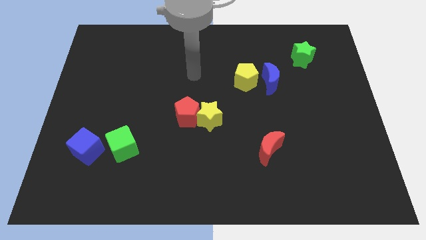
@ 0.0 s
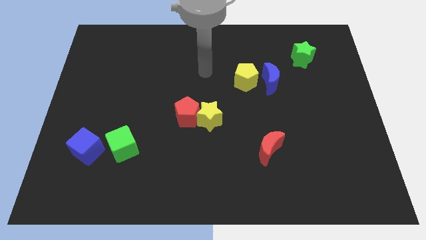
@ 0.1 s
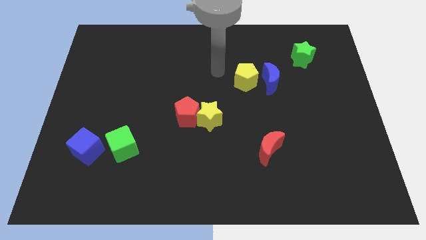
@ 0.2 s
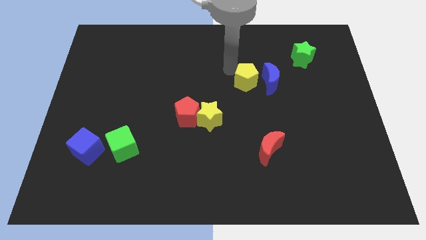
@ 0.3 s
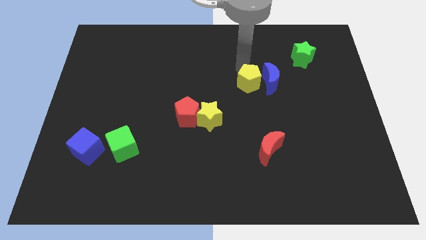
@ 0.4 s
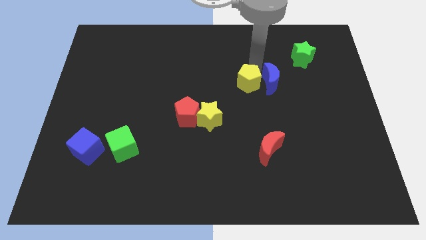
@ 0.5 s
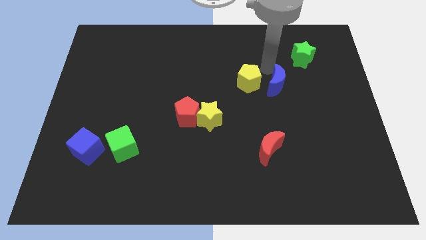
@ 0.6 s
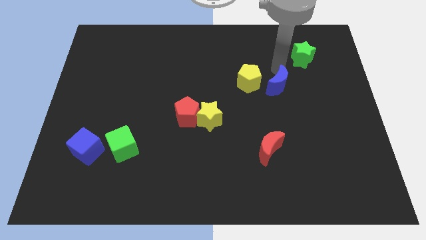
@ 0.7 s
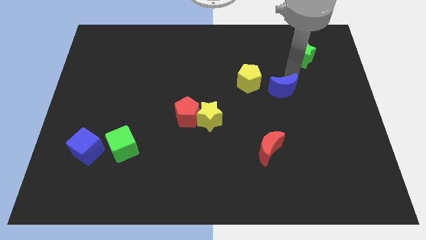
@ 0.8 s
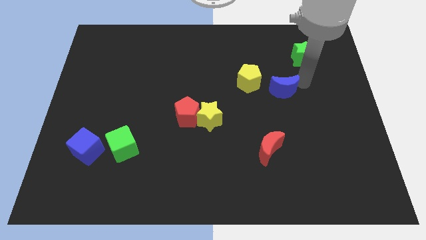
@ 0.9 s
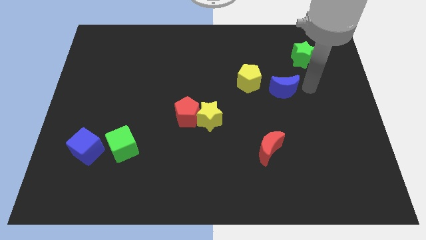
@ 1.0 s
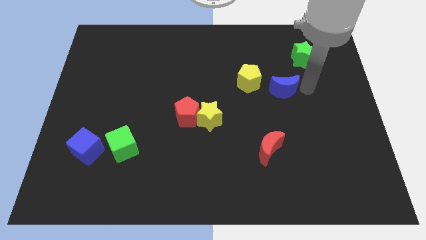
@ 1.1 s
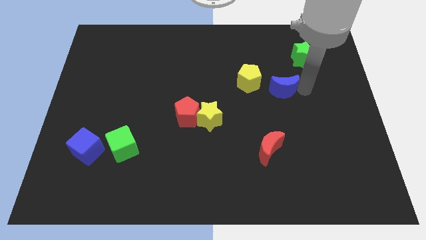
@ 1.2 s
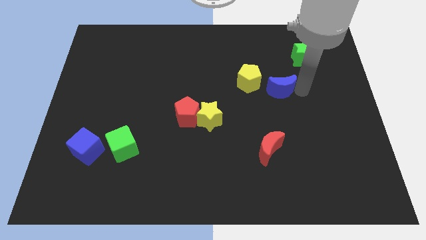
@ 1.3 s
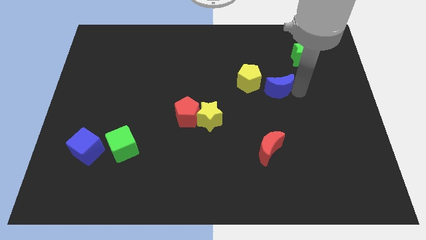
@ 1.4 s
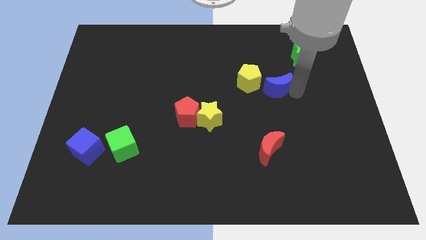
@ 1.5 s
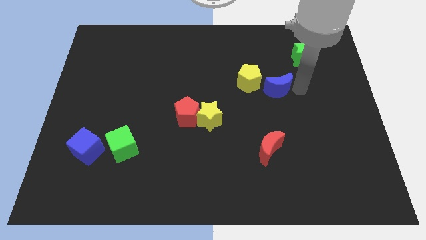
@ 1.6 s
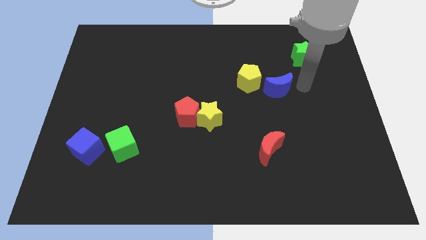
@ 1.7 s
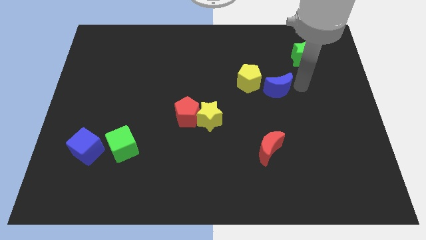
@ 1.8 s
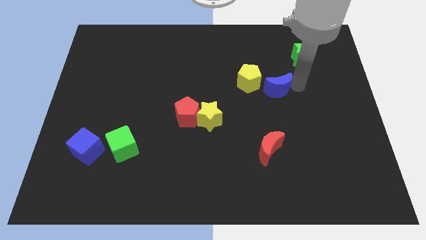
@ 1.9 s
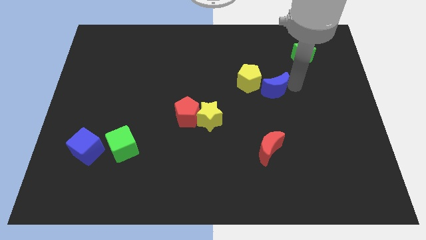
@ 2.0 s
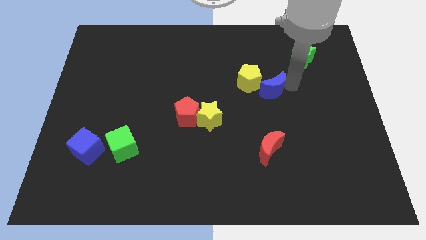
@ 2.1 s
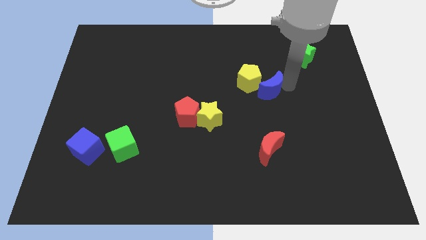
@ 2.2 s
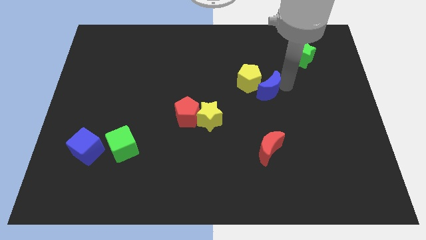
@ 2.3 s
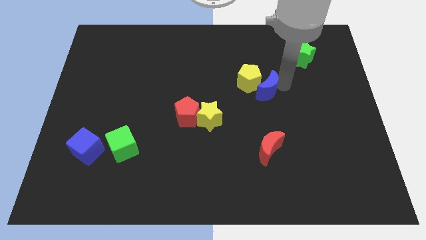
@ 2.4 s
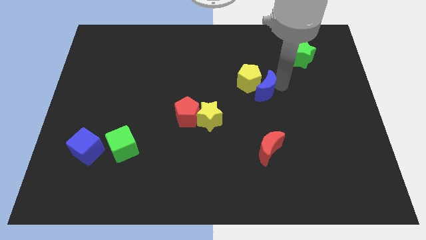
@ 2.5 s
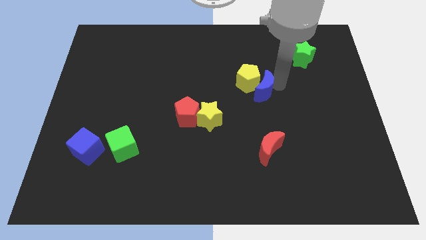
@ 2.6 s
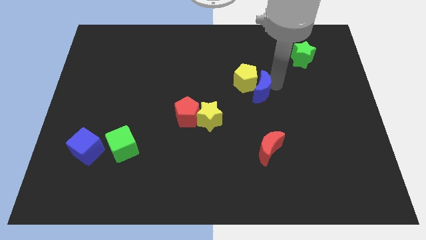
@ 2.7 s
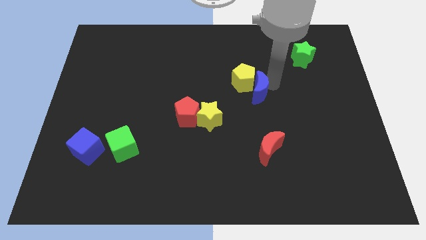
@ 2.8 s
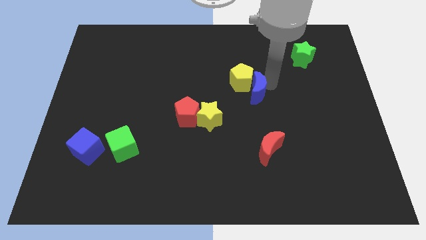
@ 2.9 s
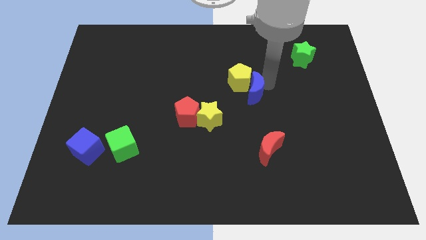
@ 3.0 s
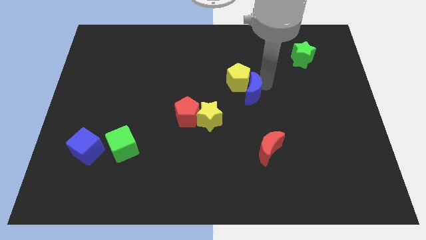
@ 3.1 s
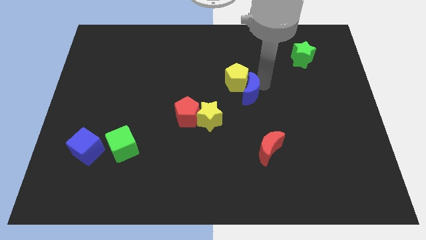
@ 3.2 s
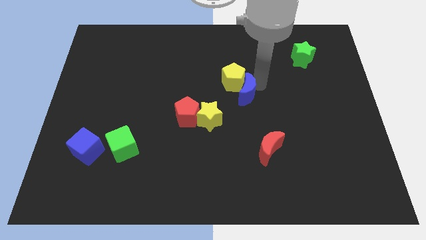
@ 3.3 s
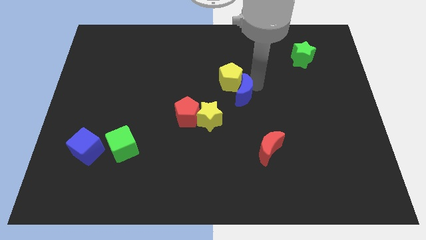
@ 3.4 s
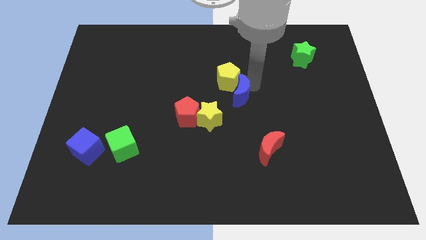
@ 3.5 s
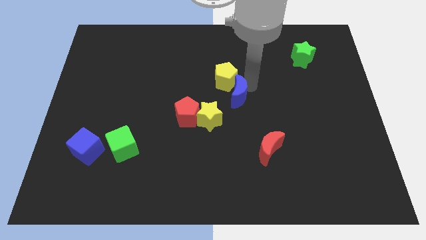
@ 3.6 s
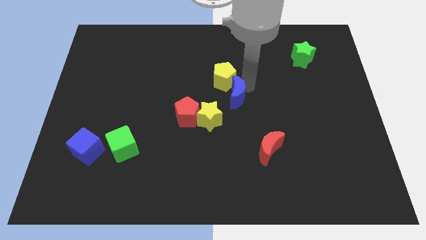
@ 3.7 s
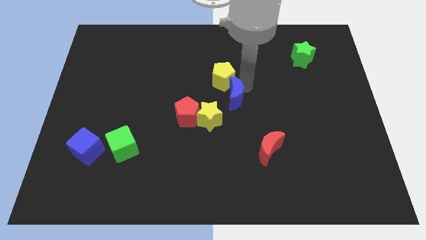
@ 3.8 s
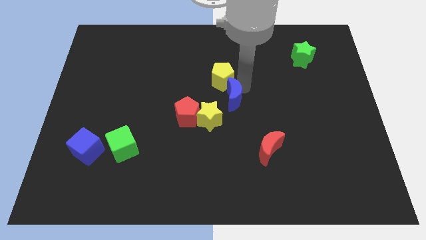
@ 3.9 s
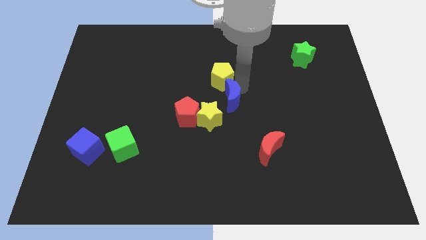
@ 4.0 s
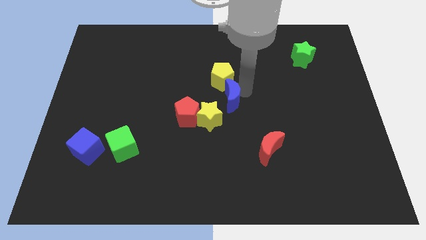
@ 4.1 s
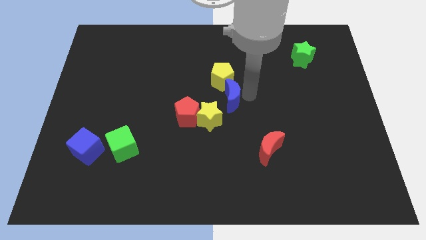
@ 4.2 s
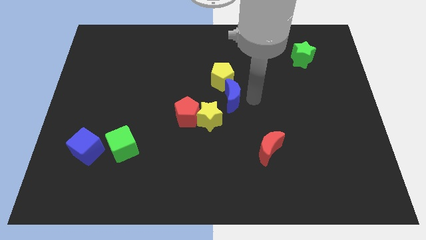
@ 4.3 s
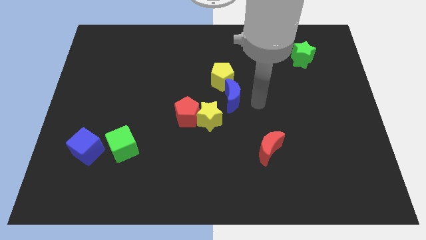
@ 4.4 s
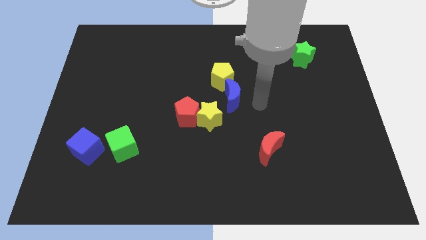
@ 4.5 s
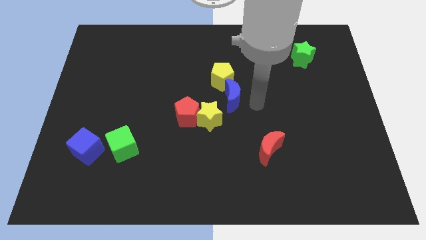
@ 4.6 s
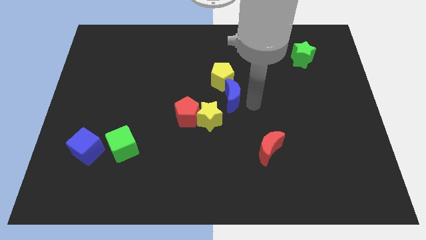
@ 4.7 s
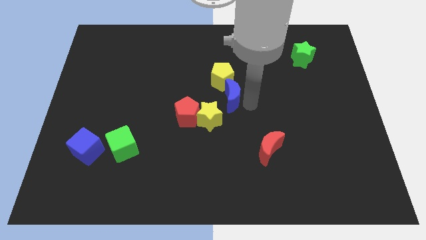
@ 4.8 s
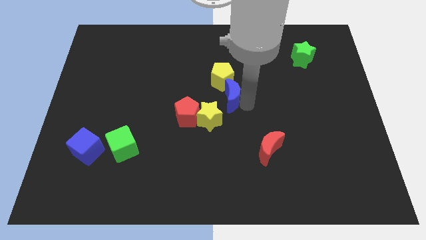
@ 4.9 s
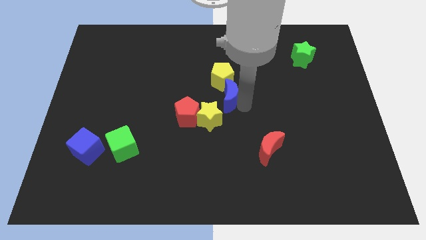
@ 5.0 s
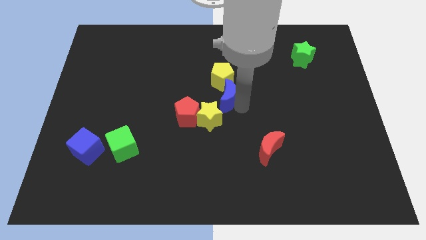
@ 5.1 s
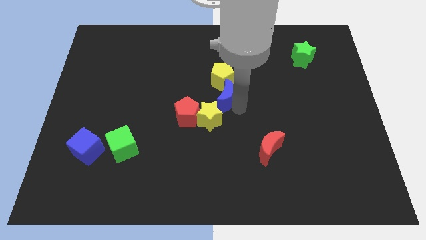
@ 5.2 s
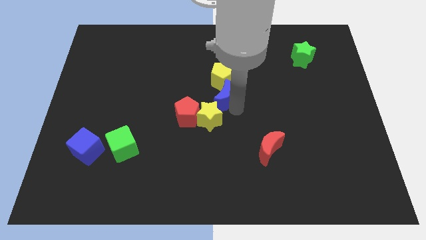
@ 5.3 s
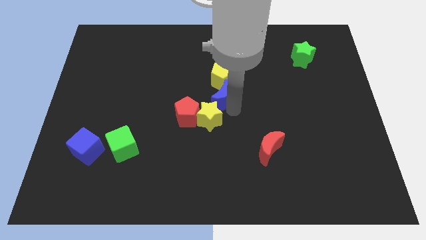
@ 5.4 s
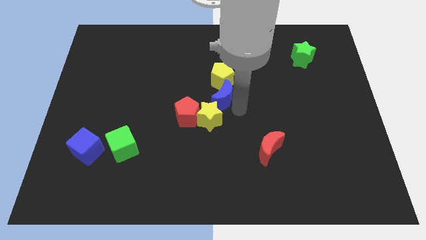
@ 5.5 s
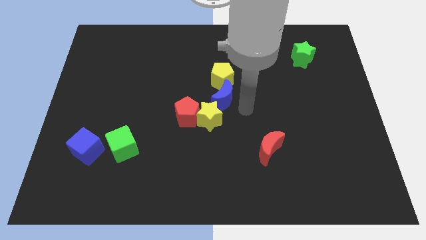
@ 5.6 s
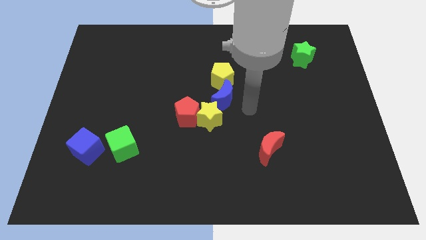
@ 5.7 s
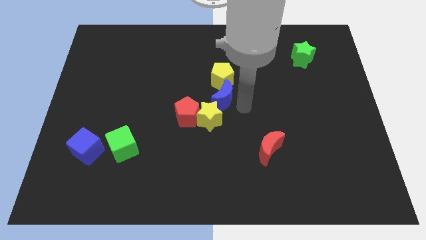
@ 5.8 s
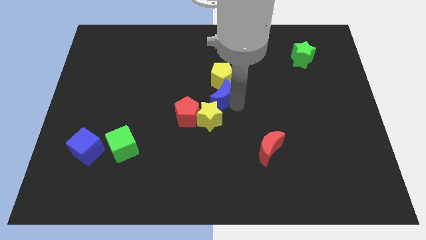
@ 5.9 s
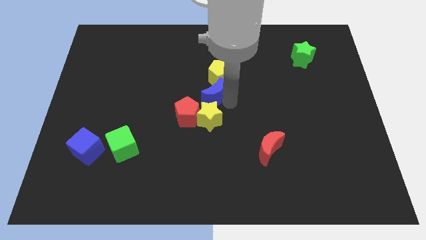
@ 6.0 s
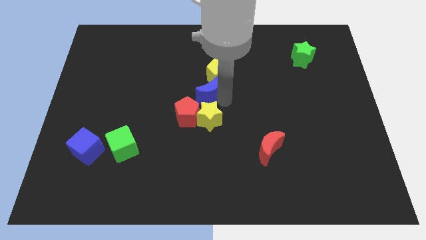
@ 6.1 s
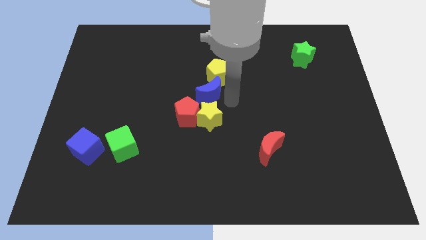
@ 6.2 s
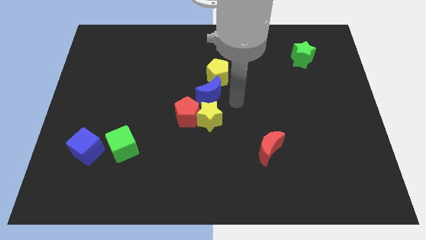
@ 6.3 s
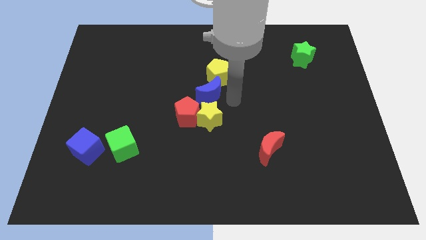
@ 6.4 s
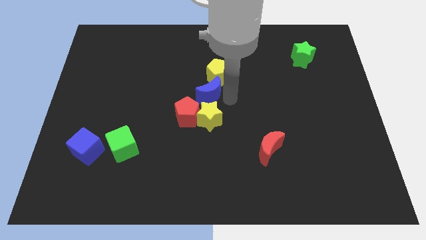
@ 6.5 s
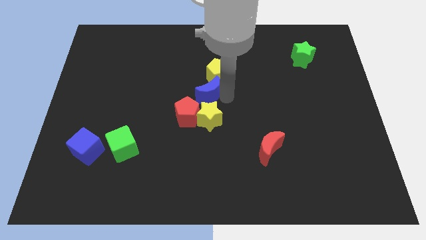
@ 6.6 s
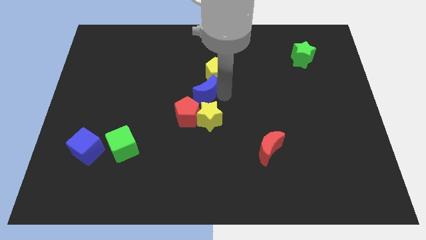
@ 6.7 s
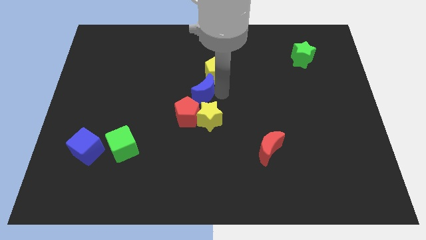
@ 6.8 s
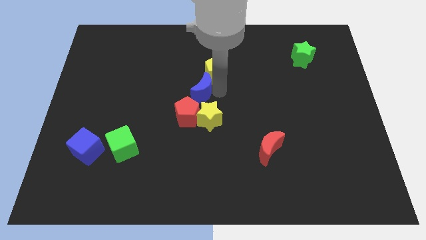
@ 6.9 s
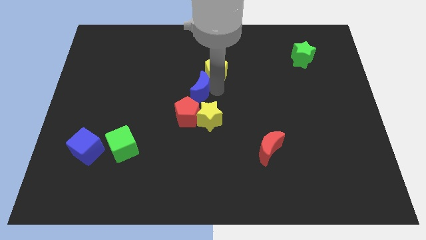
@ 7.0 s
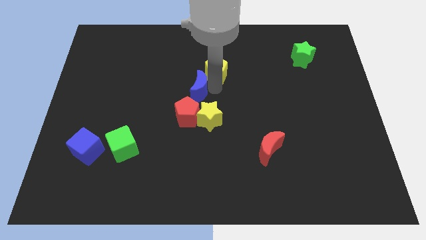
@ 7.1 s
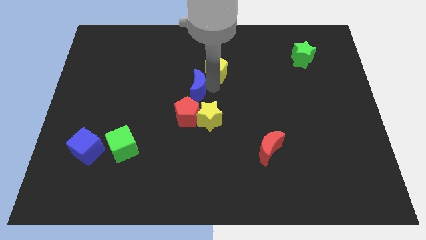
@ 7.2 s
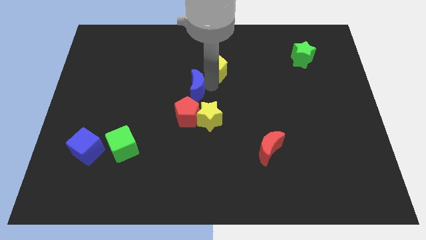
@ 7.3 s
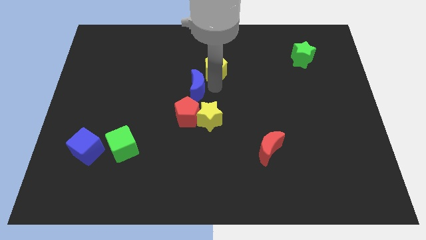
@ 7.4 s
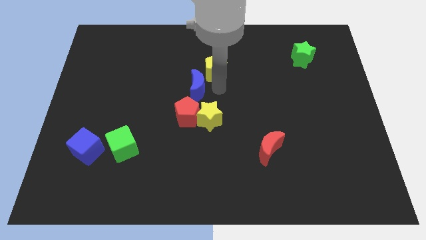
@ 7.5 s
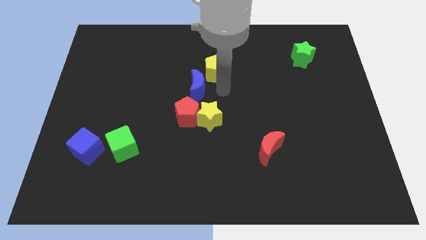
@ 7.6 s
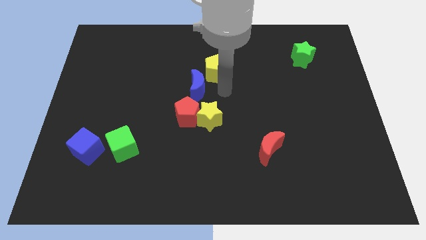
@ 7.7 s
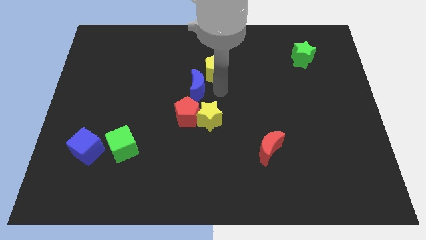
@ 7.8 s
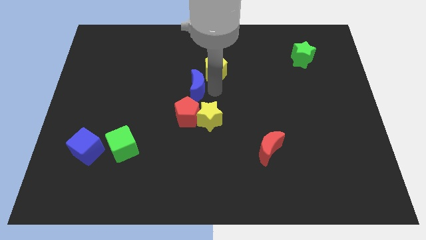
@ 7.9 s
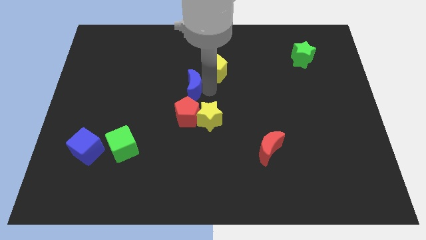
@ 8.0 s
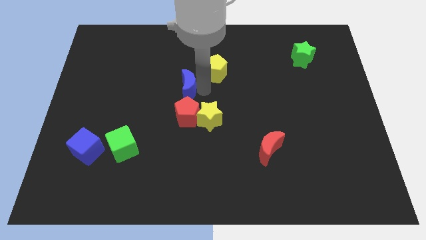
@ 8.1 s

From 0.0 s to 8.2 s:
move the blue moon left
